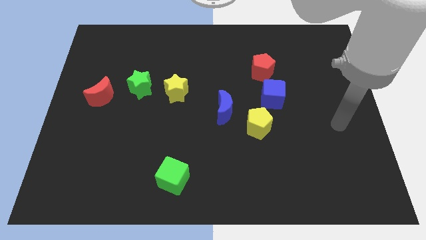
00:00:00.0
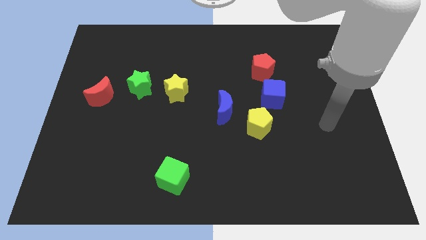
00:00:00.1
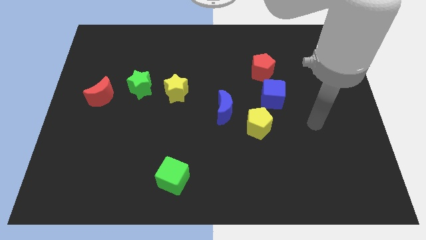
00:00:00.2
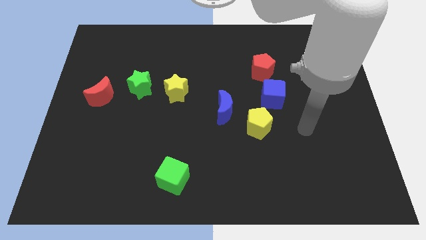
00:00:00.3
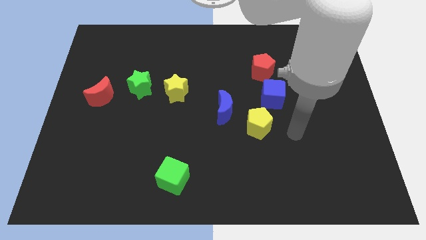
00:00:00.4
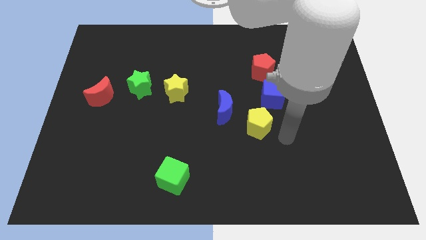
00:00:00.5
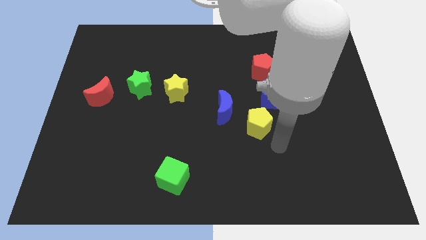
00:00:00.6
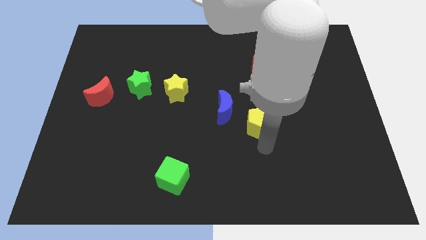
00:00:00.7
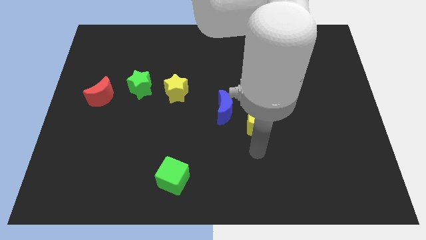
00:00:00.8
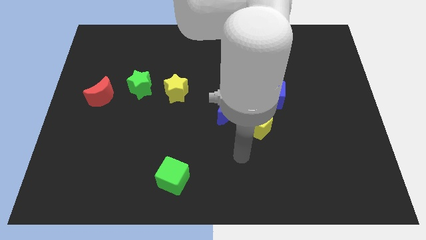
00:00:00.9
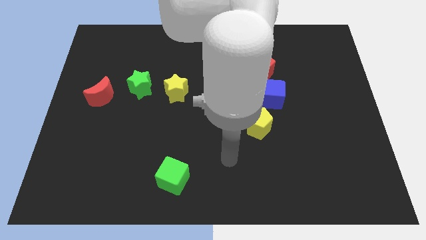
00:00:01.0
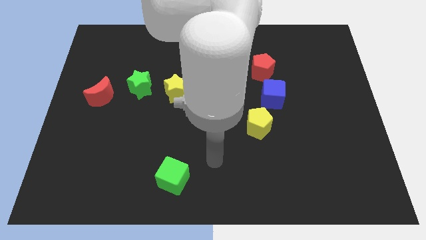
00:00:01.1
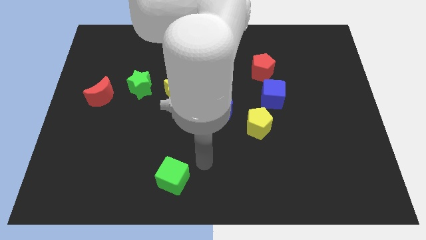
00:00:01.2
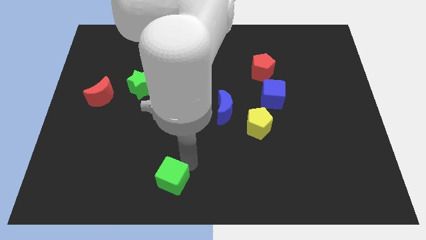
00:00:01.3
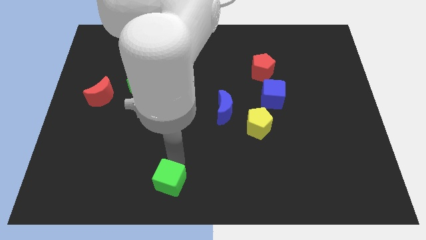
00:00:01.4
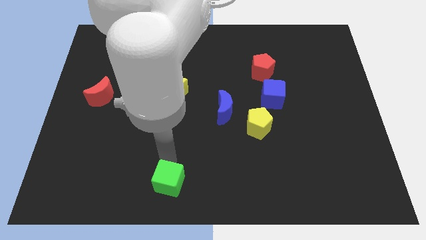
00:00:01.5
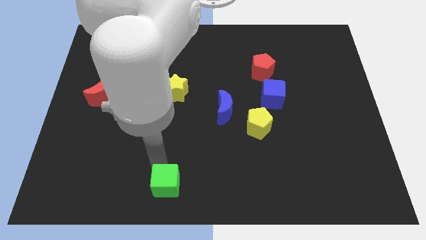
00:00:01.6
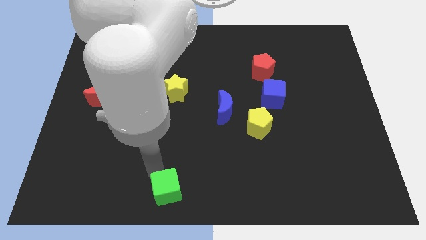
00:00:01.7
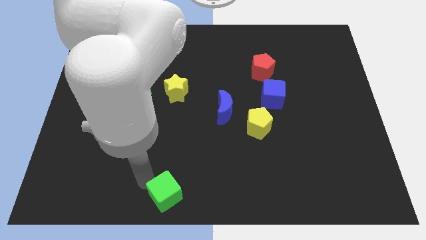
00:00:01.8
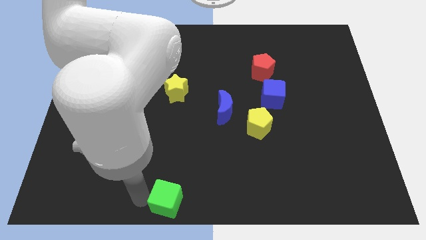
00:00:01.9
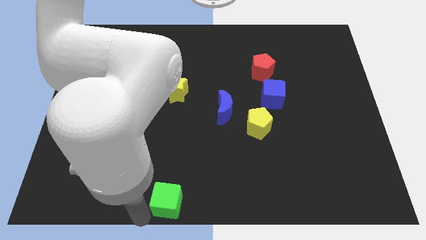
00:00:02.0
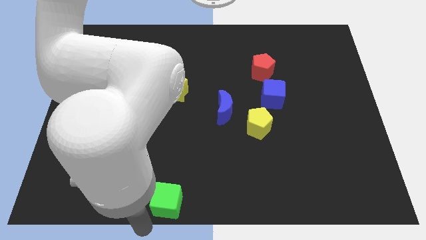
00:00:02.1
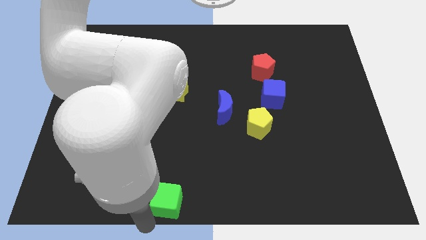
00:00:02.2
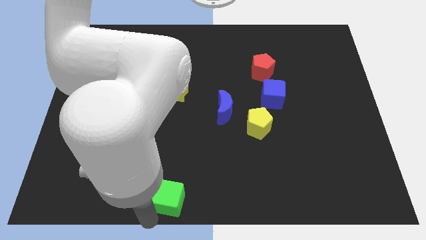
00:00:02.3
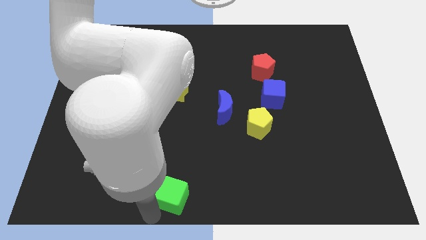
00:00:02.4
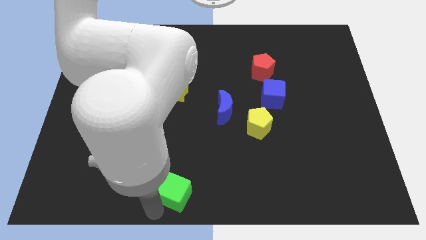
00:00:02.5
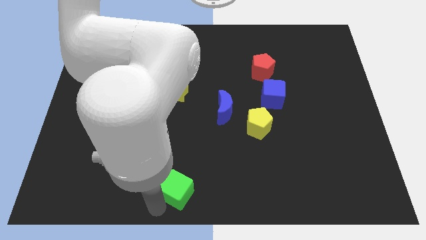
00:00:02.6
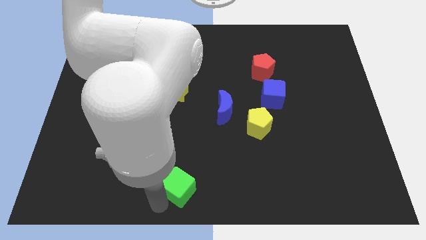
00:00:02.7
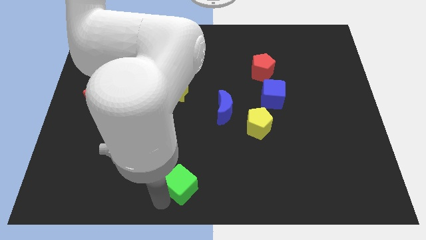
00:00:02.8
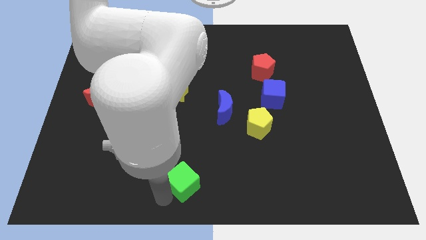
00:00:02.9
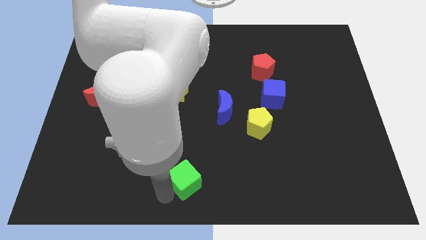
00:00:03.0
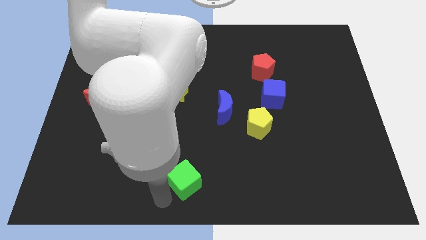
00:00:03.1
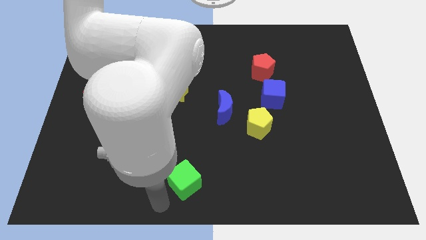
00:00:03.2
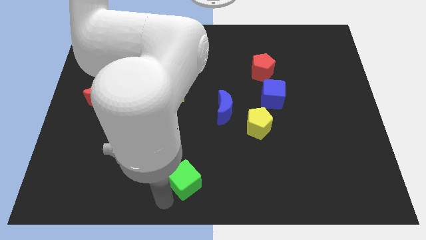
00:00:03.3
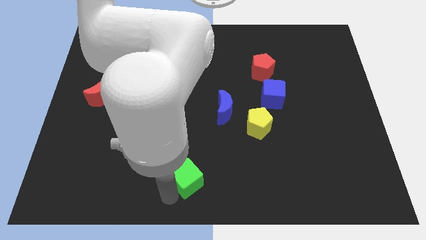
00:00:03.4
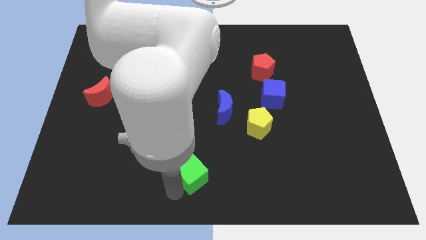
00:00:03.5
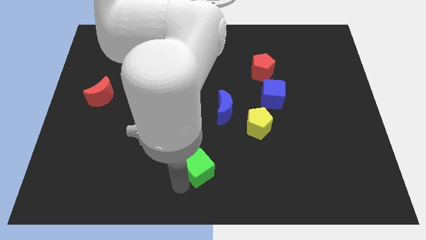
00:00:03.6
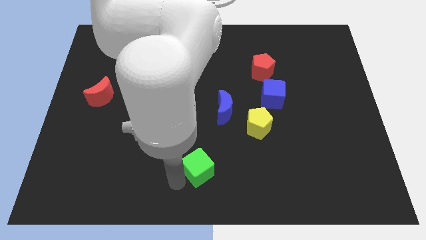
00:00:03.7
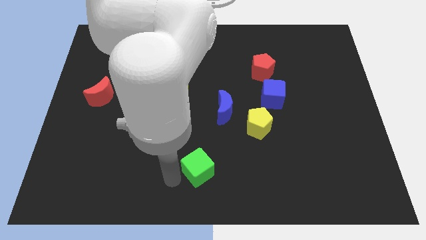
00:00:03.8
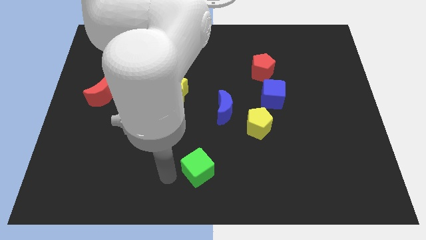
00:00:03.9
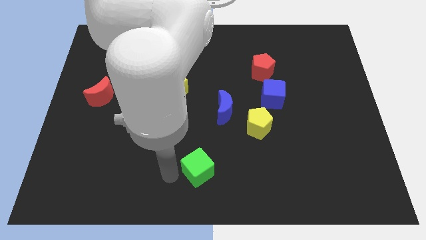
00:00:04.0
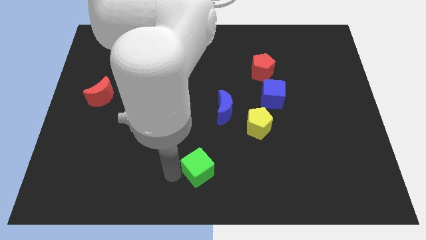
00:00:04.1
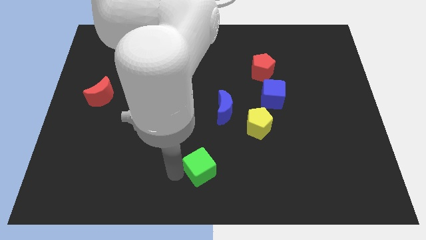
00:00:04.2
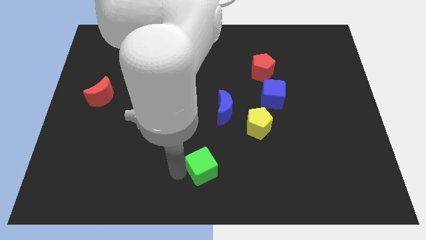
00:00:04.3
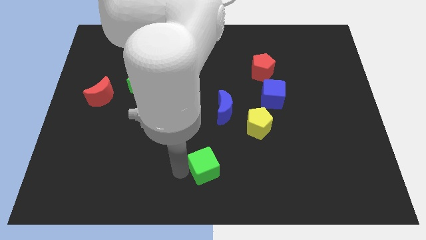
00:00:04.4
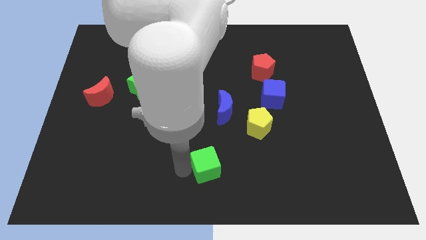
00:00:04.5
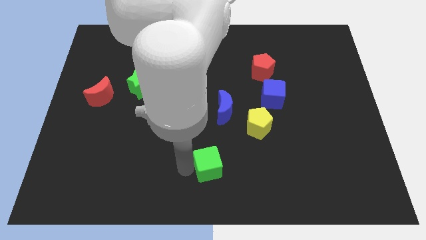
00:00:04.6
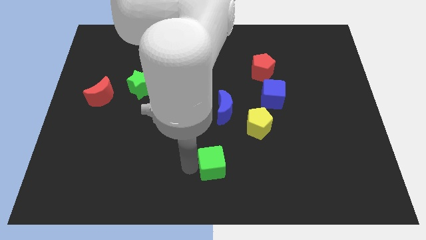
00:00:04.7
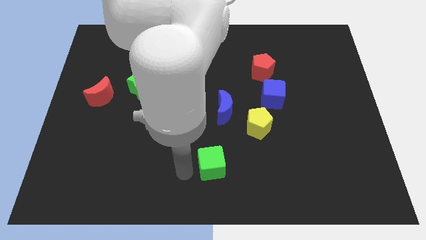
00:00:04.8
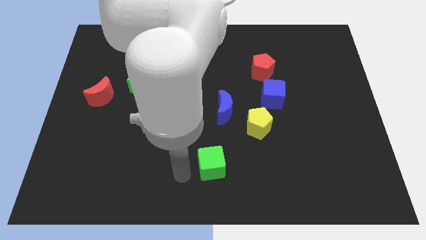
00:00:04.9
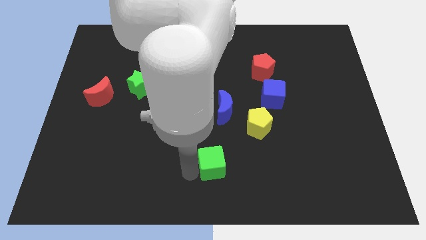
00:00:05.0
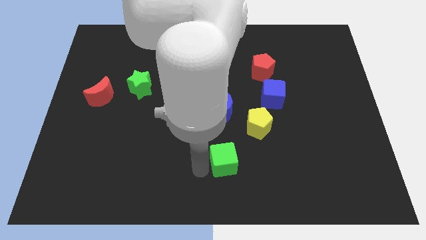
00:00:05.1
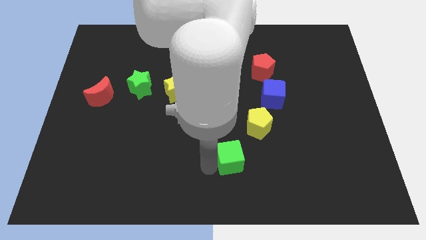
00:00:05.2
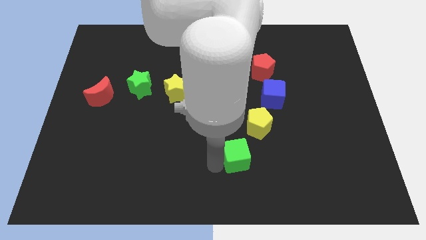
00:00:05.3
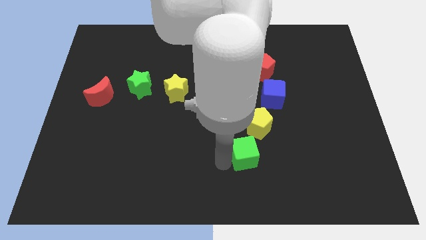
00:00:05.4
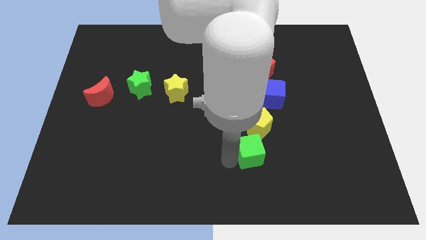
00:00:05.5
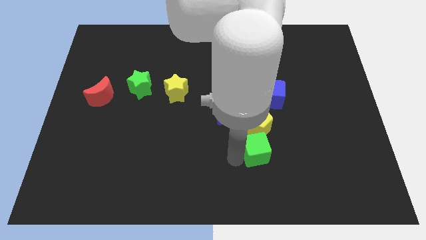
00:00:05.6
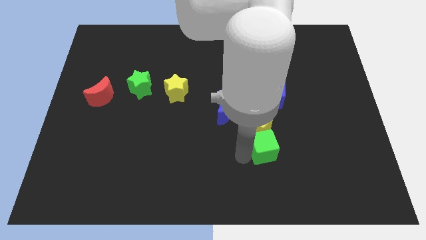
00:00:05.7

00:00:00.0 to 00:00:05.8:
push the green cube to the bottom right side of the yellow pentagon

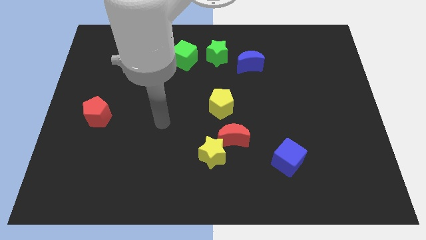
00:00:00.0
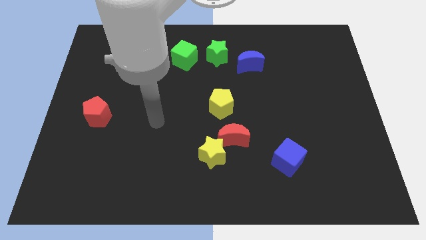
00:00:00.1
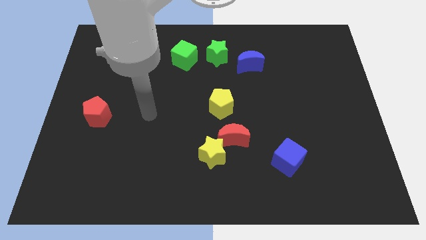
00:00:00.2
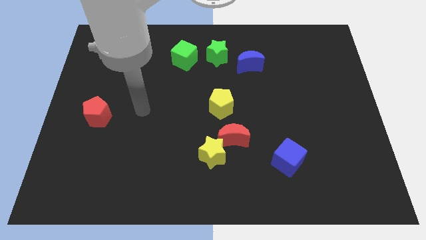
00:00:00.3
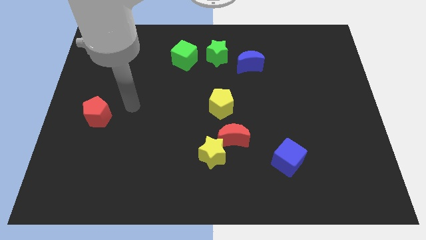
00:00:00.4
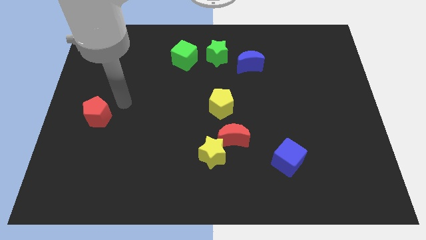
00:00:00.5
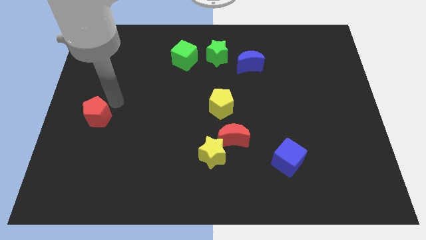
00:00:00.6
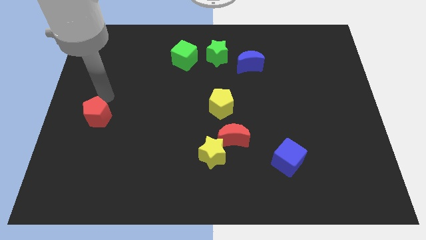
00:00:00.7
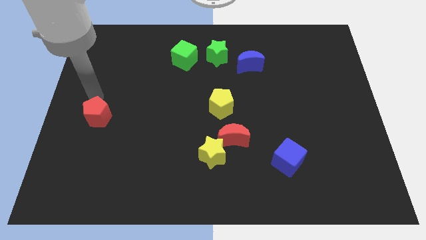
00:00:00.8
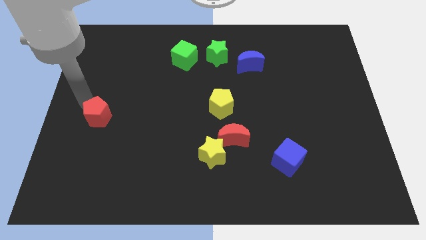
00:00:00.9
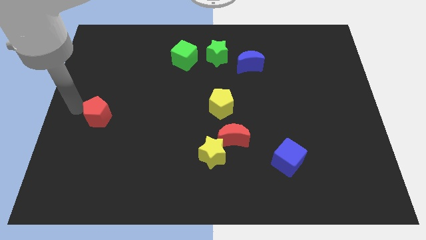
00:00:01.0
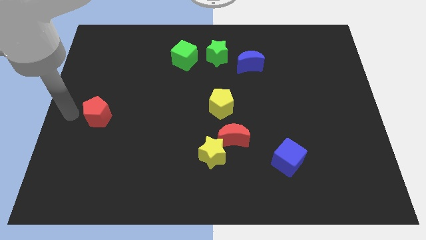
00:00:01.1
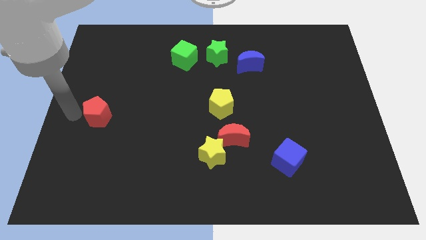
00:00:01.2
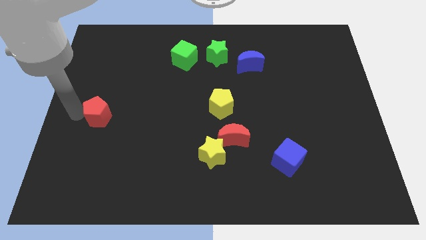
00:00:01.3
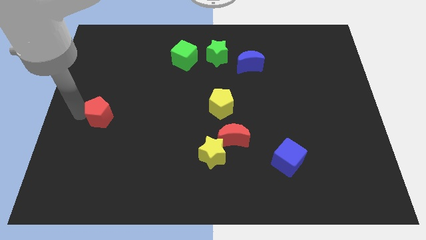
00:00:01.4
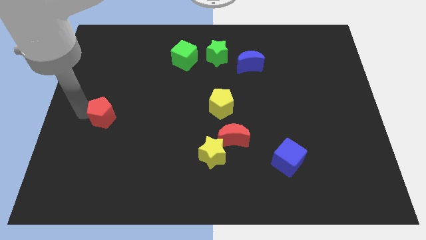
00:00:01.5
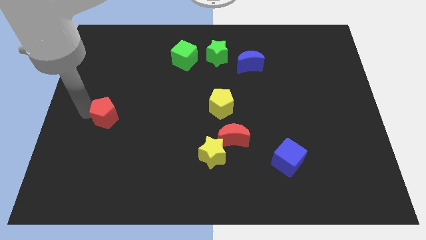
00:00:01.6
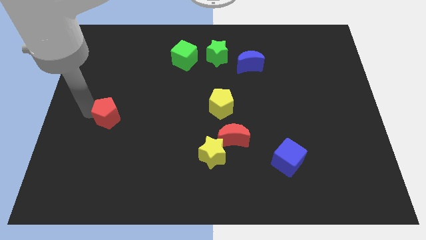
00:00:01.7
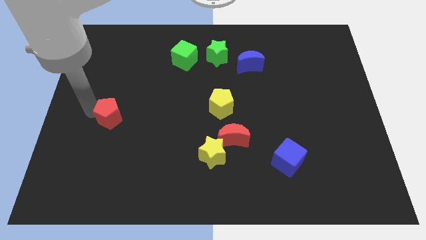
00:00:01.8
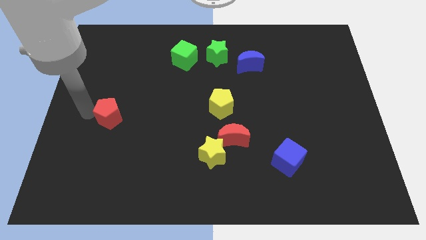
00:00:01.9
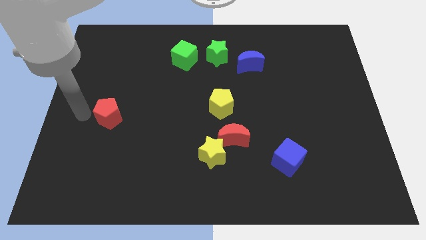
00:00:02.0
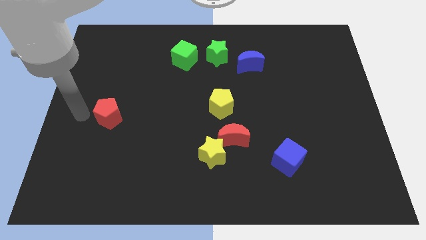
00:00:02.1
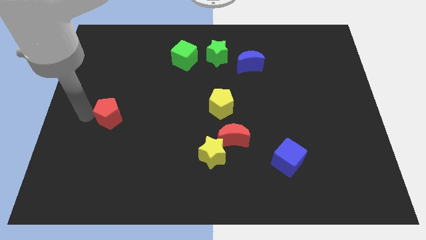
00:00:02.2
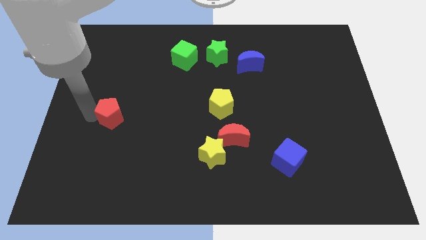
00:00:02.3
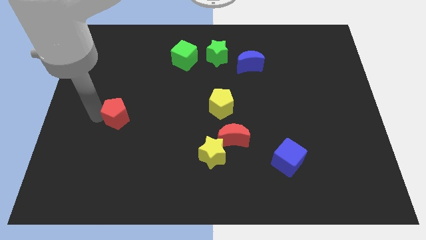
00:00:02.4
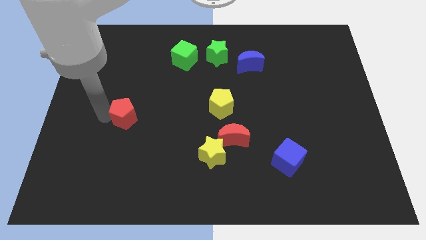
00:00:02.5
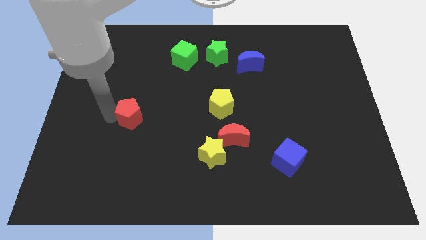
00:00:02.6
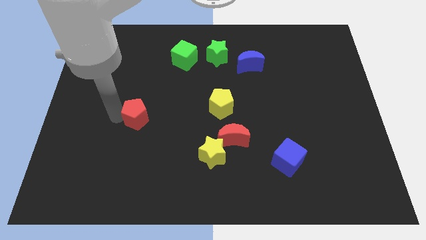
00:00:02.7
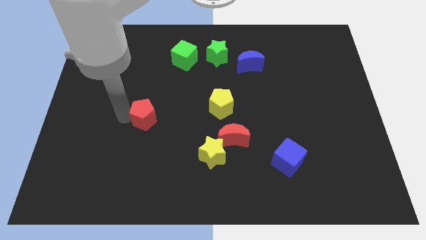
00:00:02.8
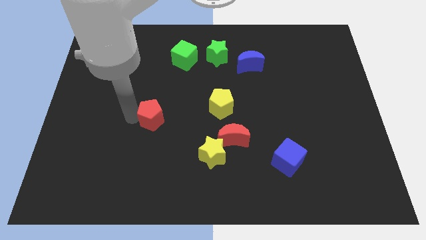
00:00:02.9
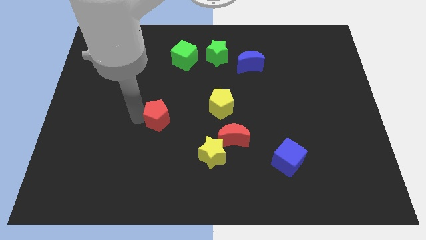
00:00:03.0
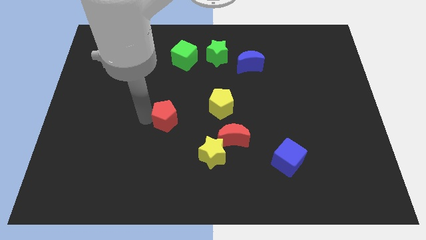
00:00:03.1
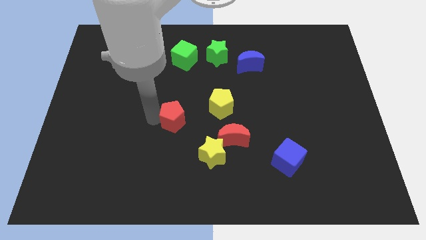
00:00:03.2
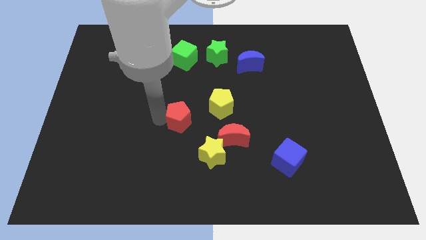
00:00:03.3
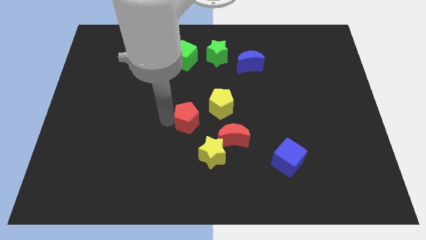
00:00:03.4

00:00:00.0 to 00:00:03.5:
slide the red pentagon to the top left of the red moon
